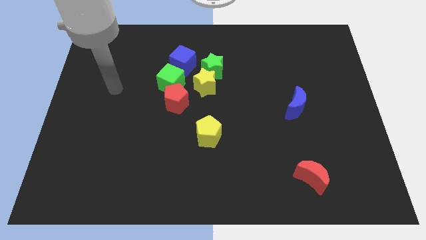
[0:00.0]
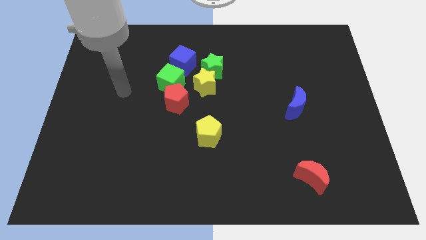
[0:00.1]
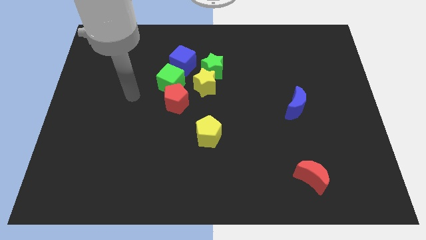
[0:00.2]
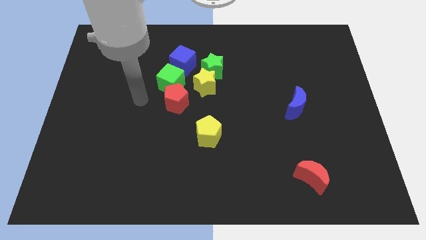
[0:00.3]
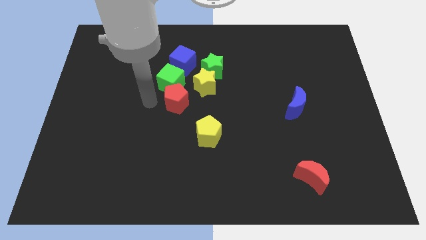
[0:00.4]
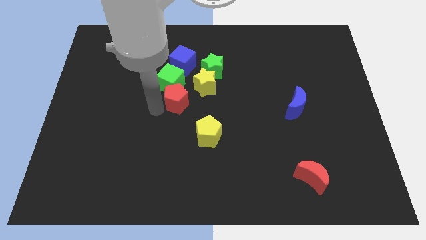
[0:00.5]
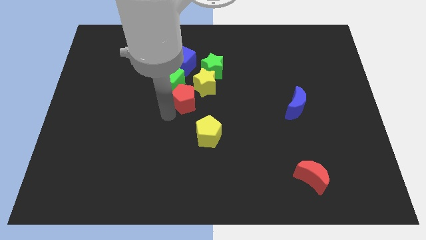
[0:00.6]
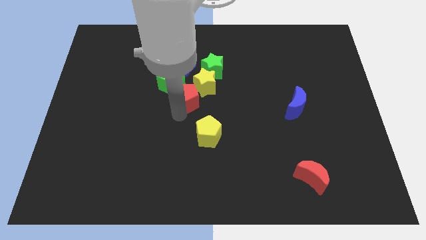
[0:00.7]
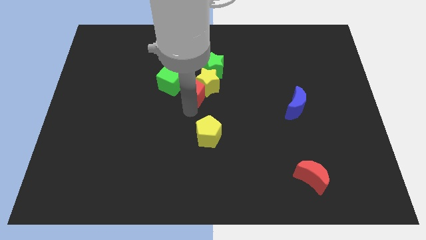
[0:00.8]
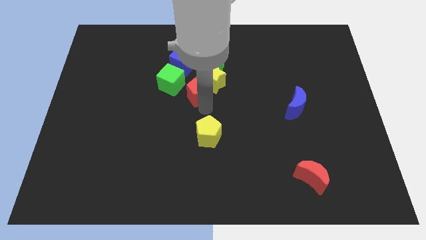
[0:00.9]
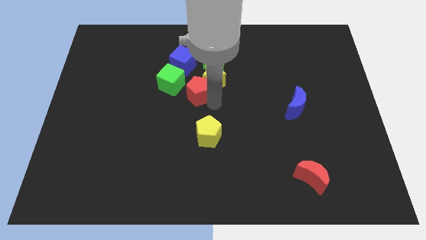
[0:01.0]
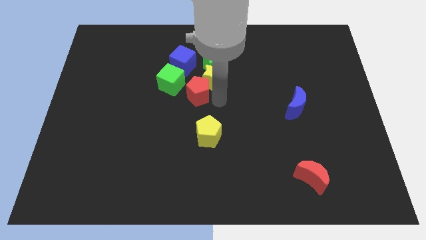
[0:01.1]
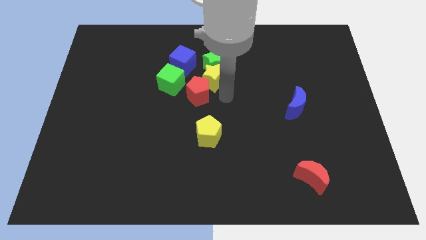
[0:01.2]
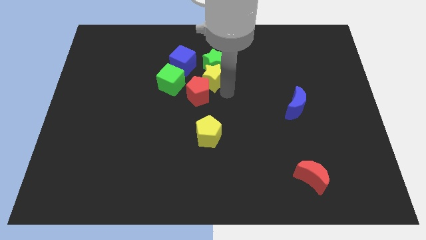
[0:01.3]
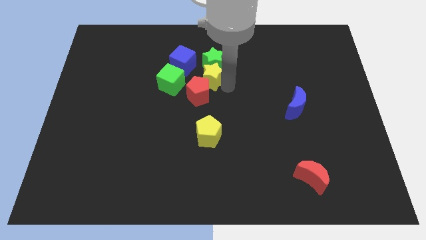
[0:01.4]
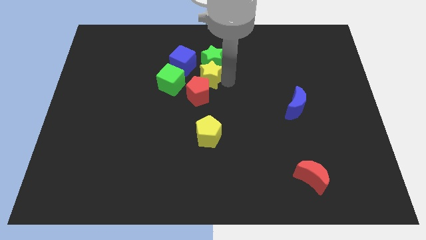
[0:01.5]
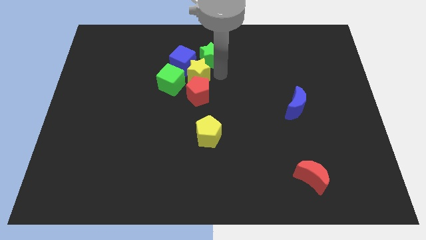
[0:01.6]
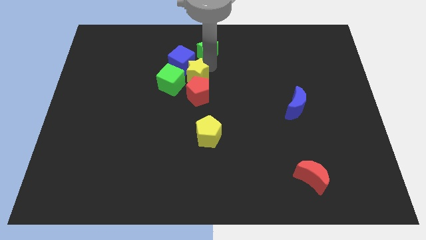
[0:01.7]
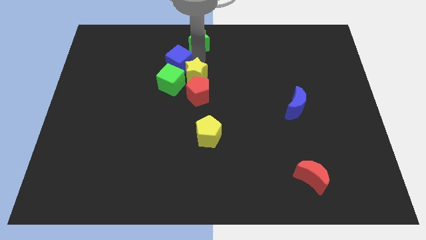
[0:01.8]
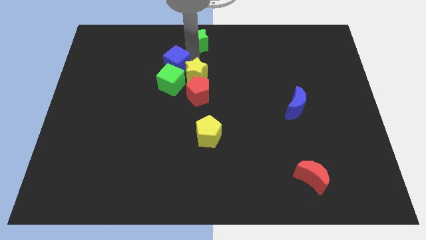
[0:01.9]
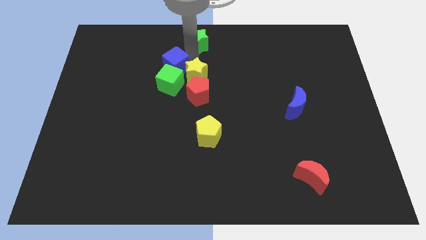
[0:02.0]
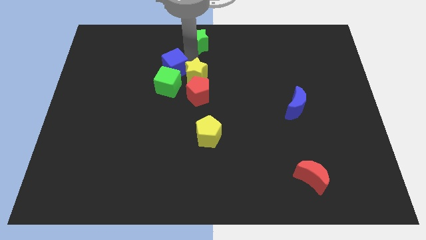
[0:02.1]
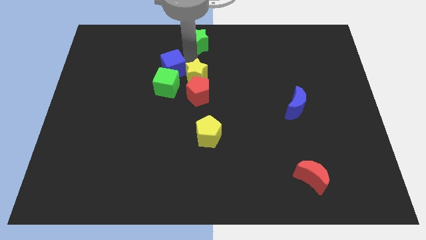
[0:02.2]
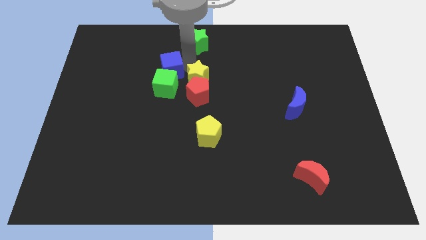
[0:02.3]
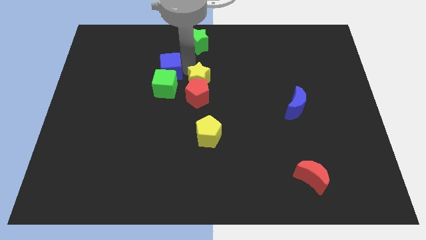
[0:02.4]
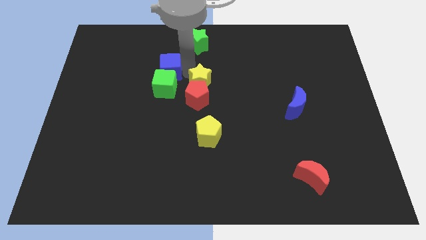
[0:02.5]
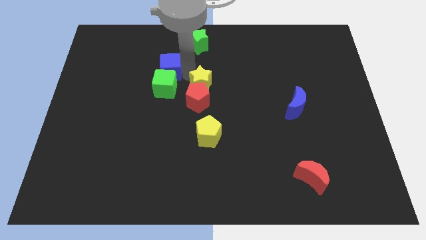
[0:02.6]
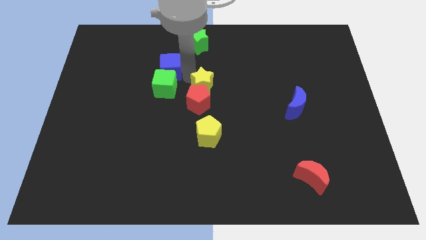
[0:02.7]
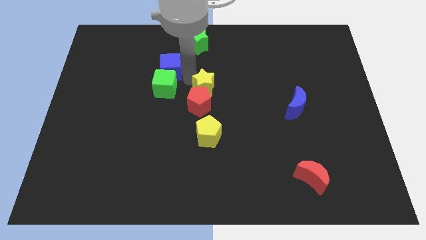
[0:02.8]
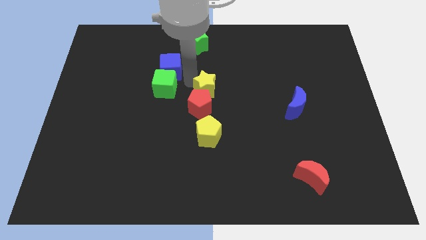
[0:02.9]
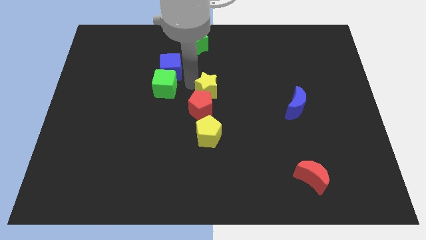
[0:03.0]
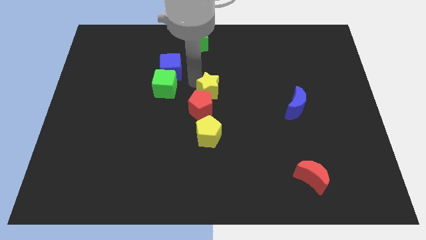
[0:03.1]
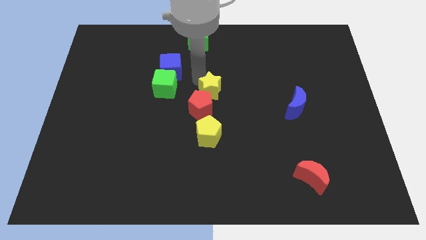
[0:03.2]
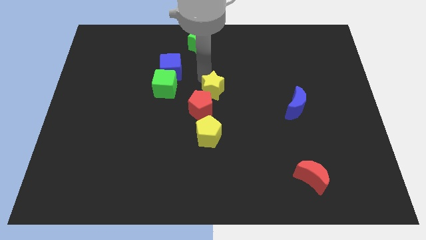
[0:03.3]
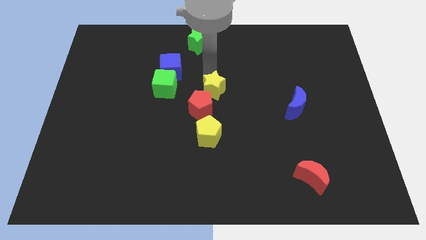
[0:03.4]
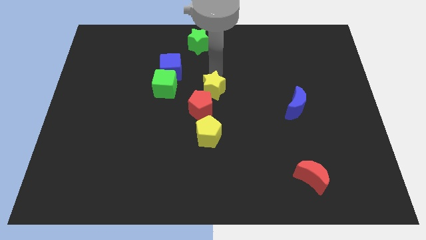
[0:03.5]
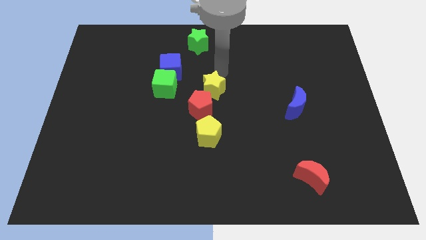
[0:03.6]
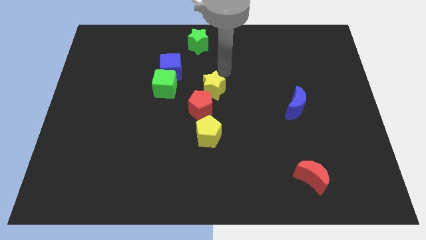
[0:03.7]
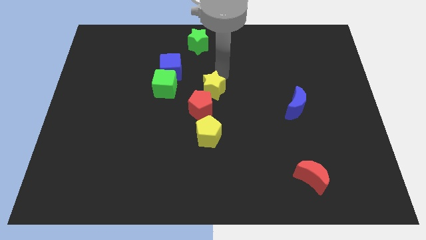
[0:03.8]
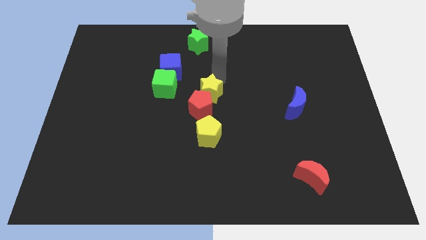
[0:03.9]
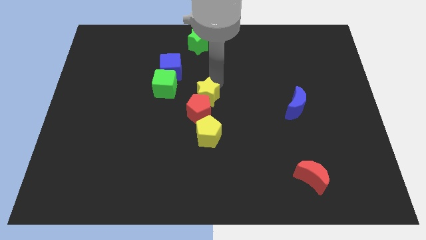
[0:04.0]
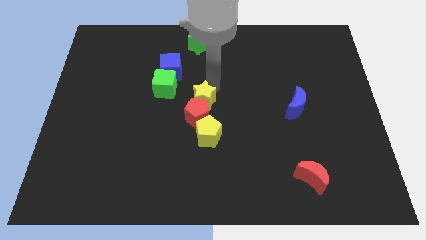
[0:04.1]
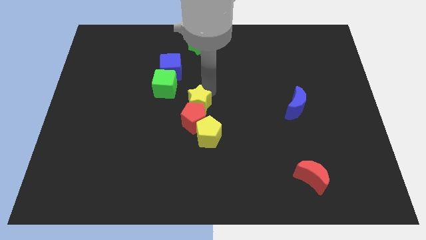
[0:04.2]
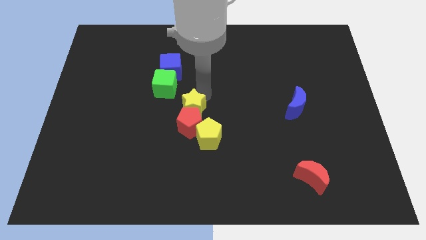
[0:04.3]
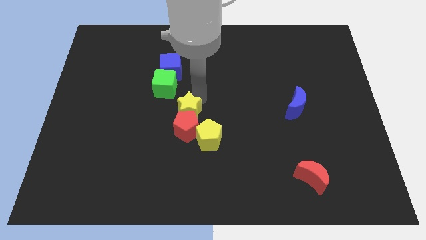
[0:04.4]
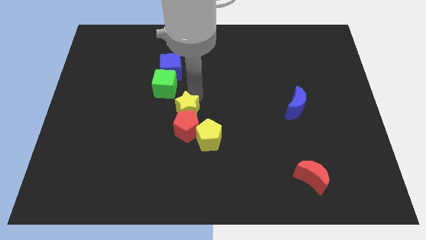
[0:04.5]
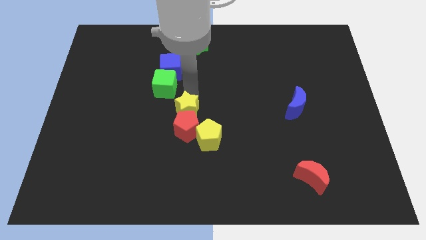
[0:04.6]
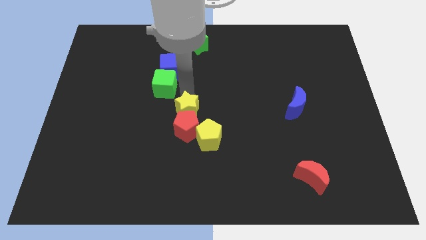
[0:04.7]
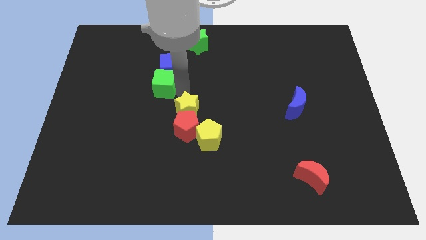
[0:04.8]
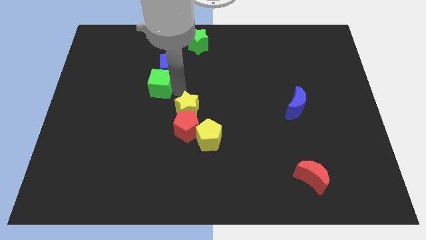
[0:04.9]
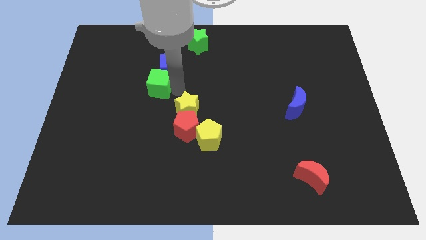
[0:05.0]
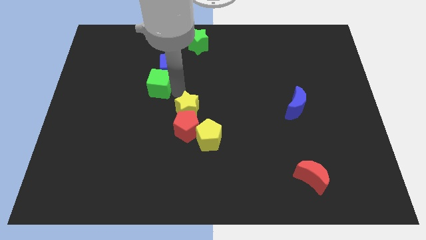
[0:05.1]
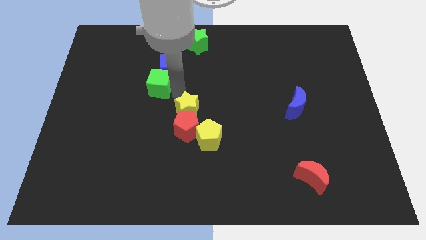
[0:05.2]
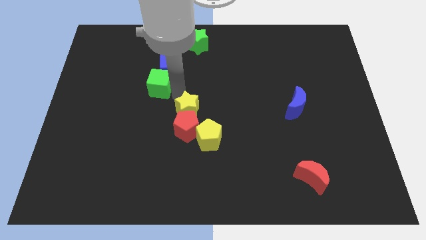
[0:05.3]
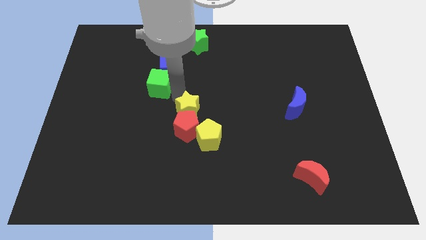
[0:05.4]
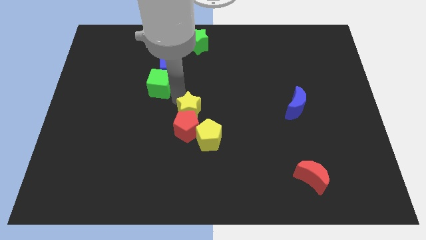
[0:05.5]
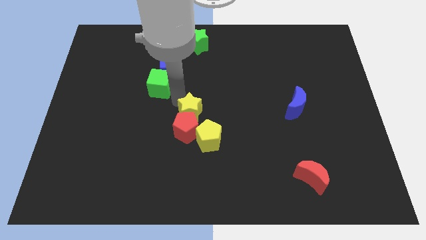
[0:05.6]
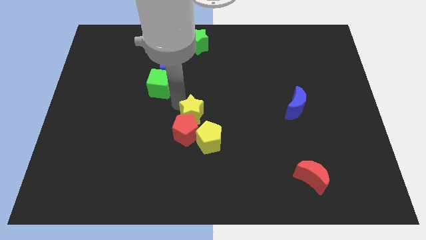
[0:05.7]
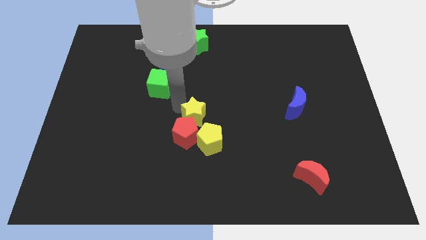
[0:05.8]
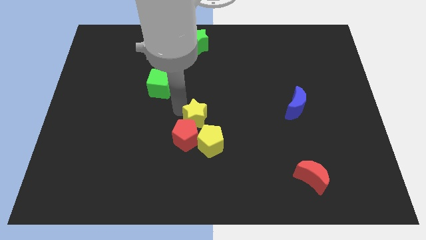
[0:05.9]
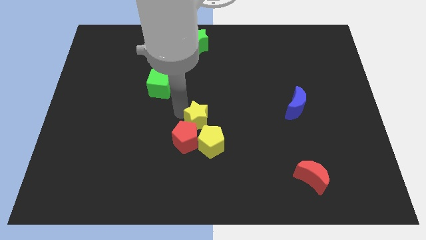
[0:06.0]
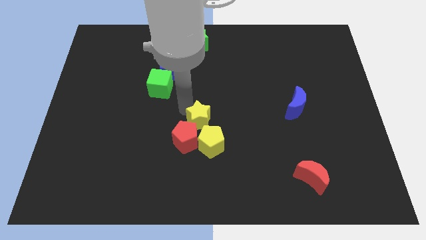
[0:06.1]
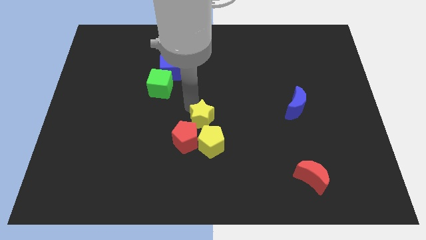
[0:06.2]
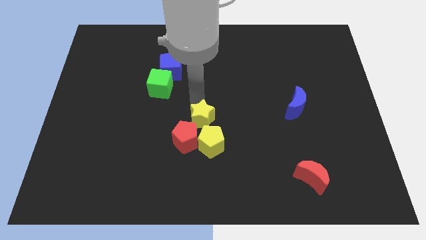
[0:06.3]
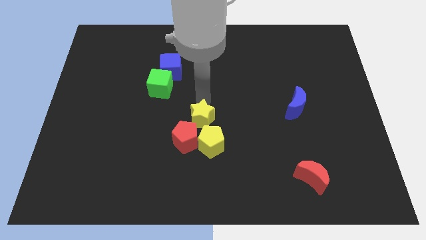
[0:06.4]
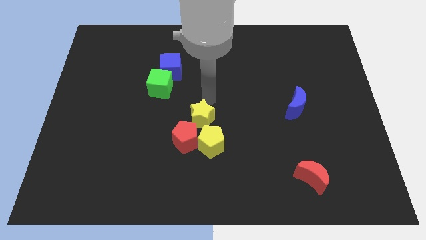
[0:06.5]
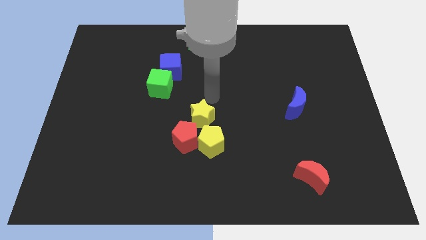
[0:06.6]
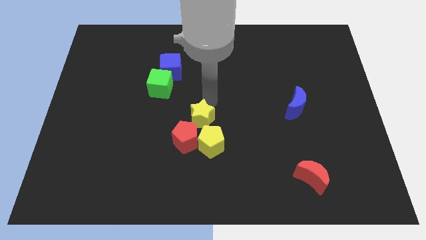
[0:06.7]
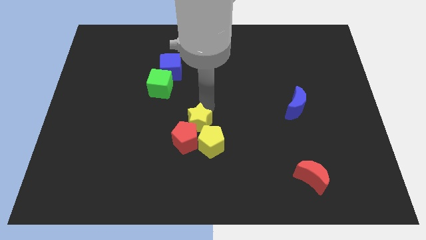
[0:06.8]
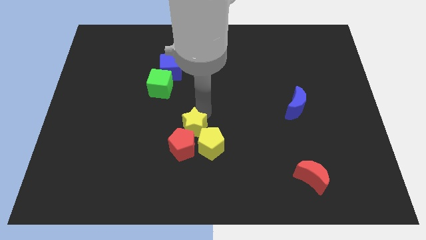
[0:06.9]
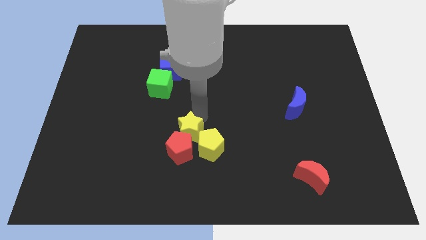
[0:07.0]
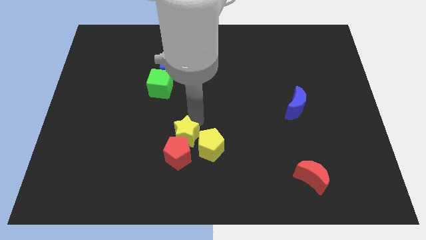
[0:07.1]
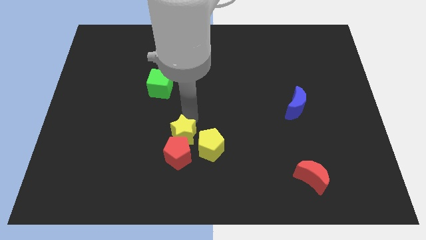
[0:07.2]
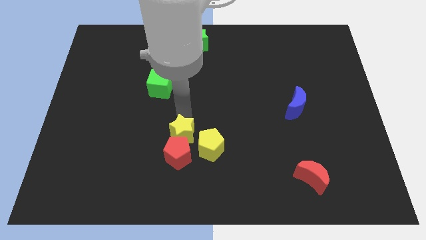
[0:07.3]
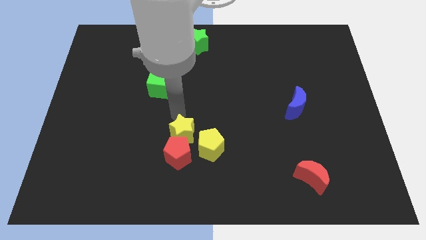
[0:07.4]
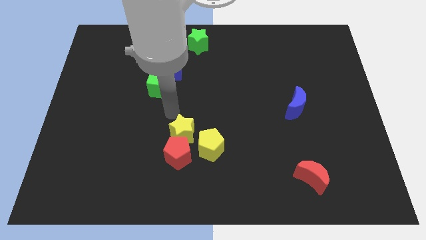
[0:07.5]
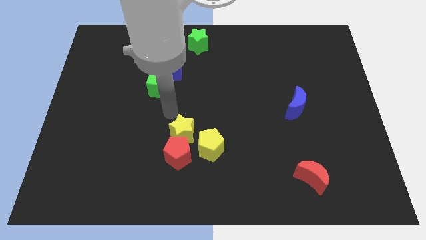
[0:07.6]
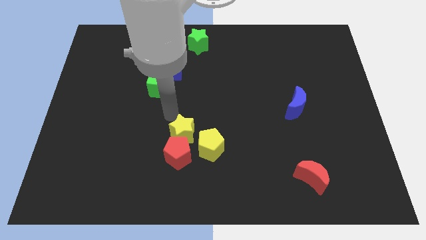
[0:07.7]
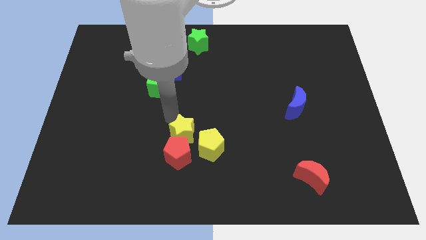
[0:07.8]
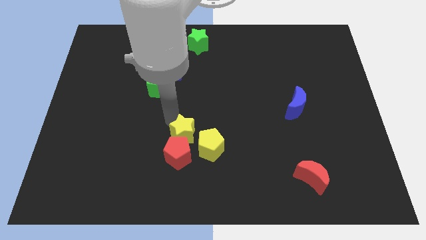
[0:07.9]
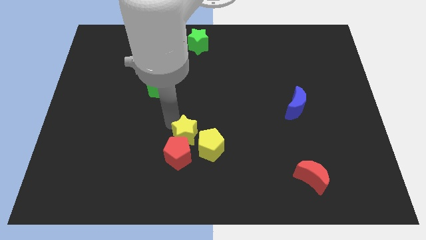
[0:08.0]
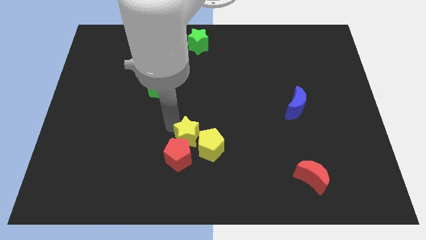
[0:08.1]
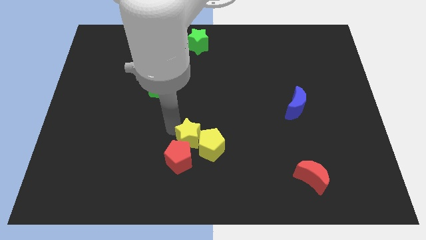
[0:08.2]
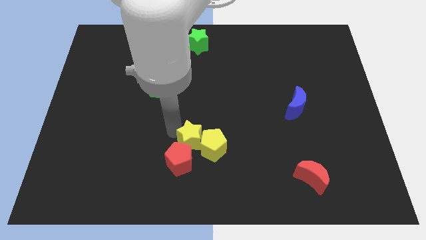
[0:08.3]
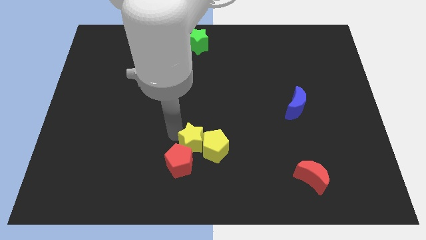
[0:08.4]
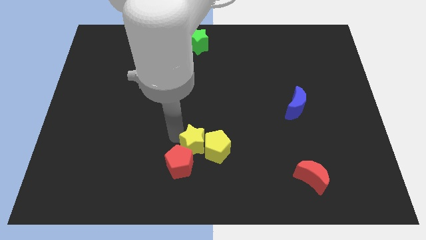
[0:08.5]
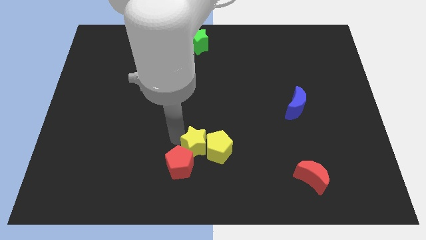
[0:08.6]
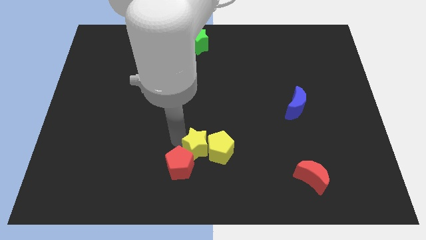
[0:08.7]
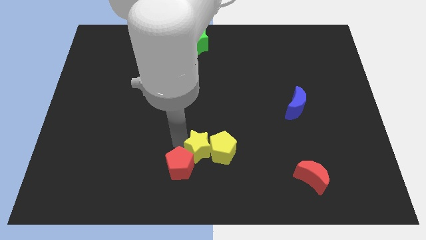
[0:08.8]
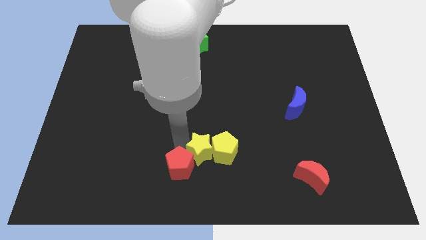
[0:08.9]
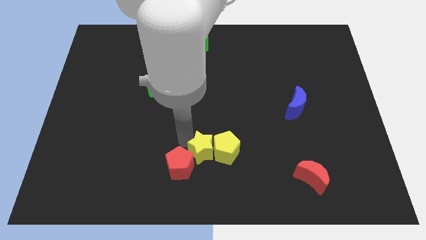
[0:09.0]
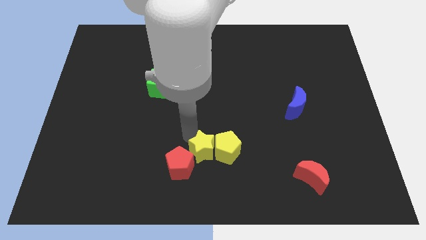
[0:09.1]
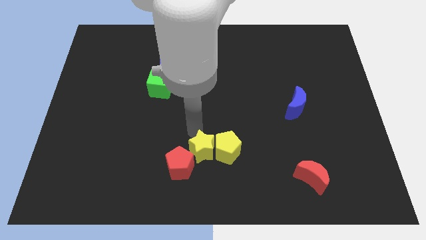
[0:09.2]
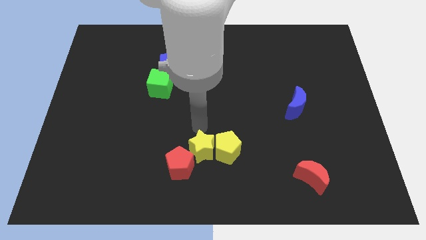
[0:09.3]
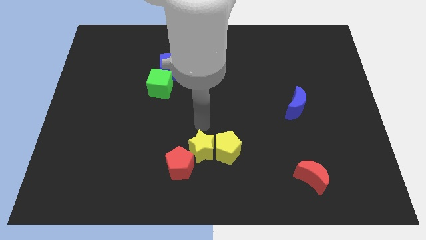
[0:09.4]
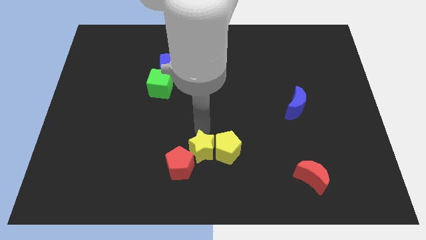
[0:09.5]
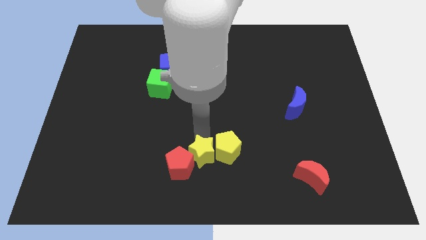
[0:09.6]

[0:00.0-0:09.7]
slide the yellow star to the bottom side
